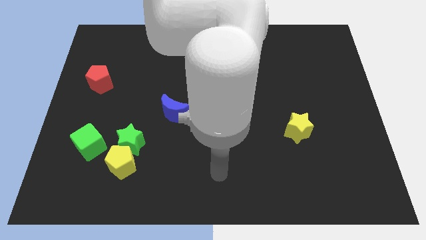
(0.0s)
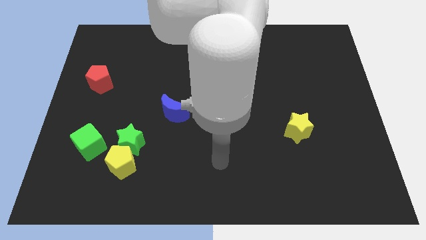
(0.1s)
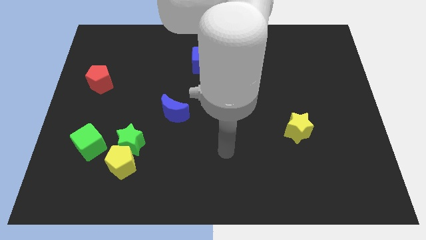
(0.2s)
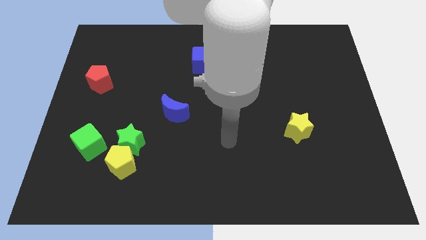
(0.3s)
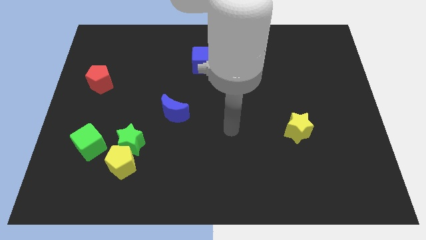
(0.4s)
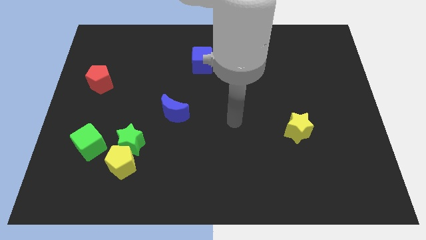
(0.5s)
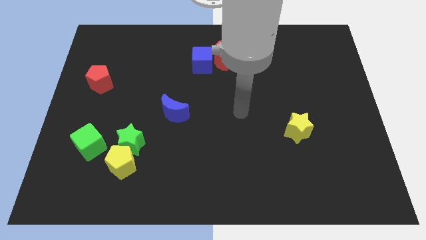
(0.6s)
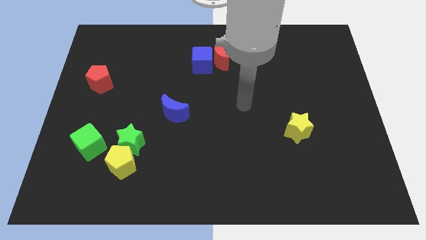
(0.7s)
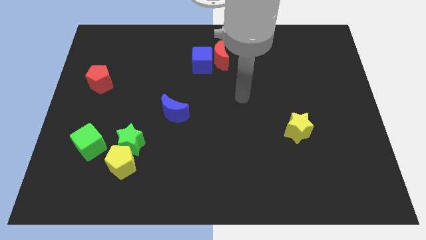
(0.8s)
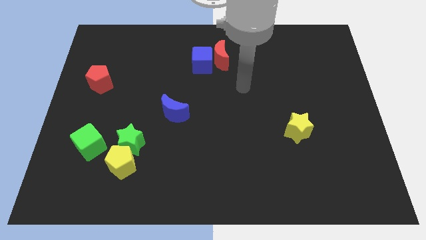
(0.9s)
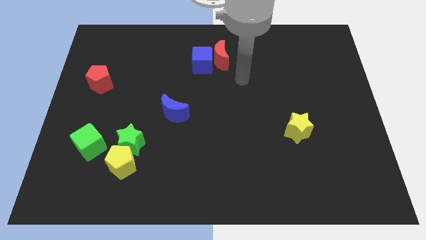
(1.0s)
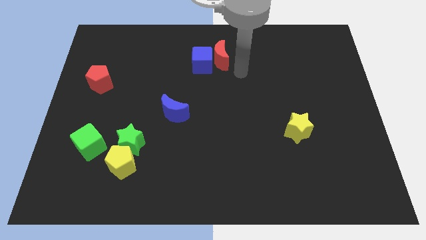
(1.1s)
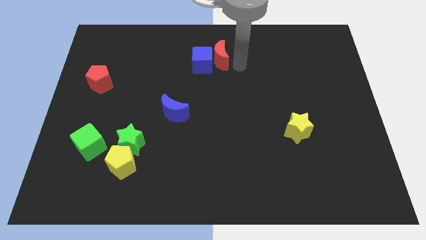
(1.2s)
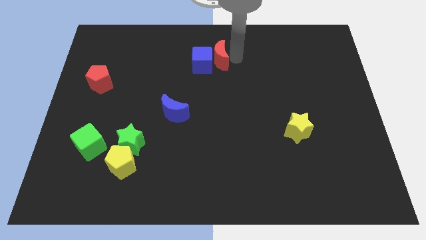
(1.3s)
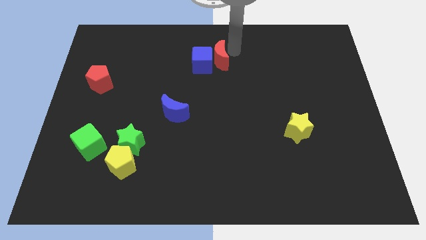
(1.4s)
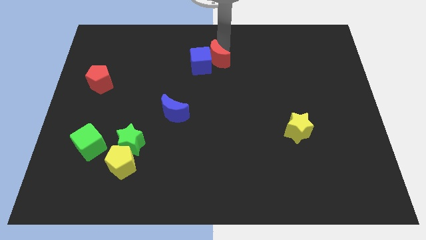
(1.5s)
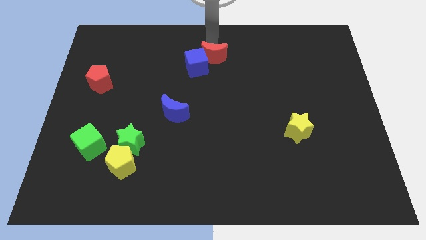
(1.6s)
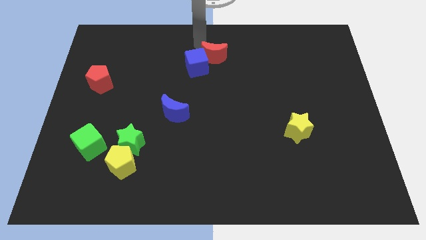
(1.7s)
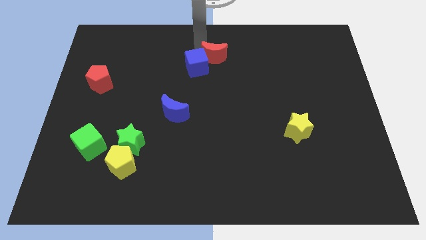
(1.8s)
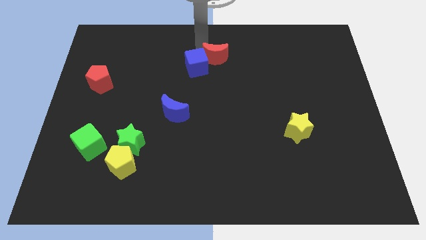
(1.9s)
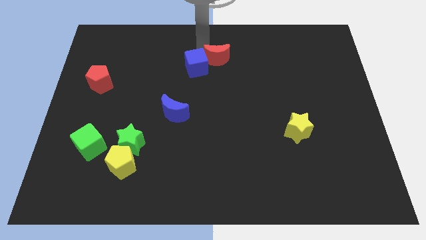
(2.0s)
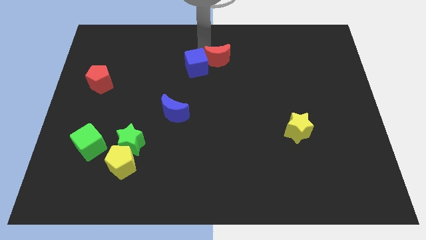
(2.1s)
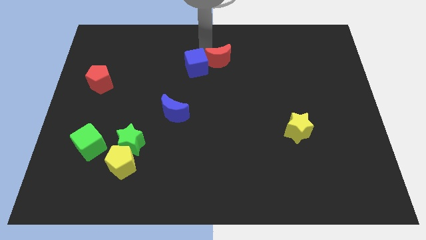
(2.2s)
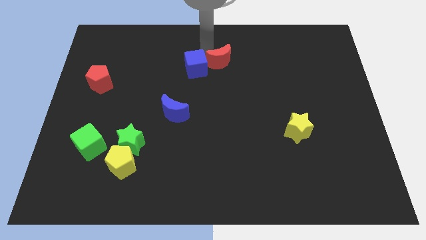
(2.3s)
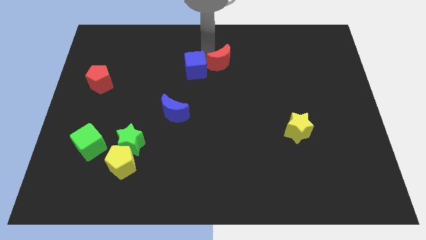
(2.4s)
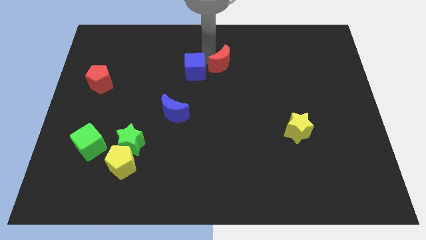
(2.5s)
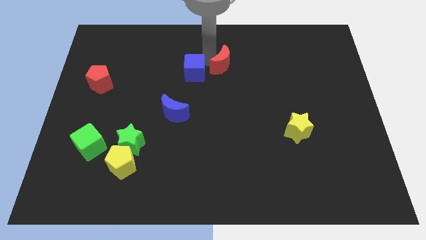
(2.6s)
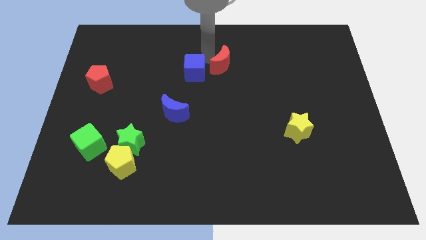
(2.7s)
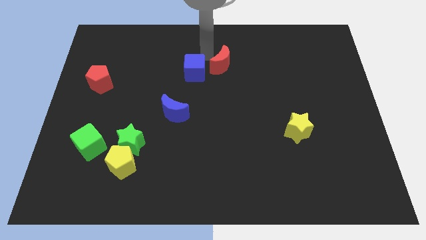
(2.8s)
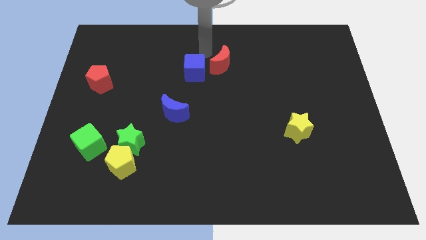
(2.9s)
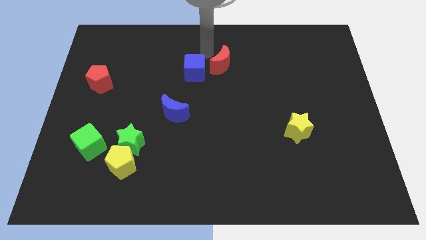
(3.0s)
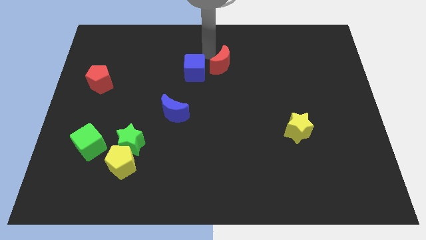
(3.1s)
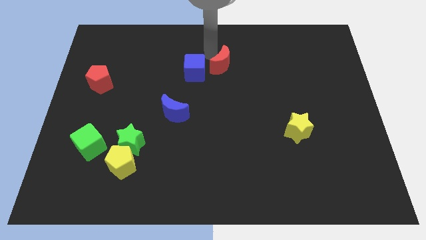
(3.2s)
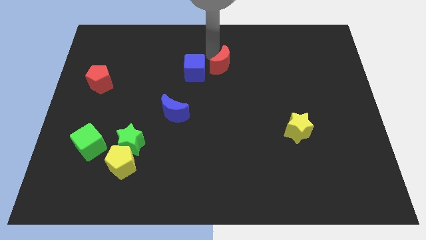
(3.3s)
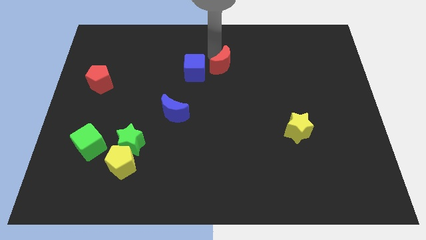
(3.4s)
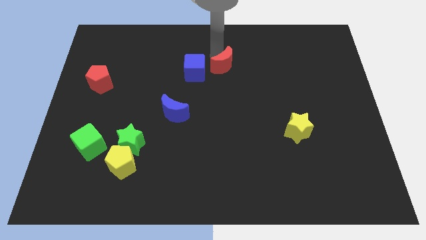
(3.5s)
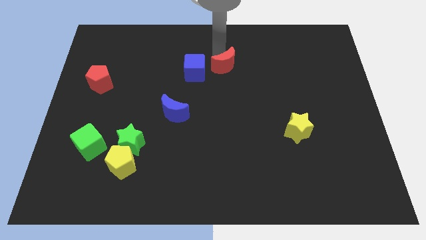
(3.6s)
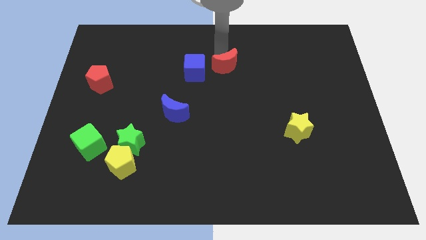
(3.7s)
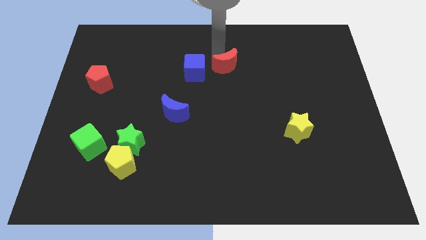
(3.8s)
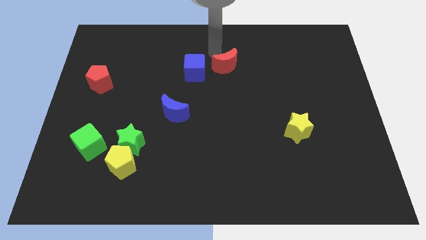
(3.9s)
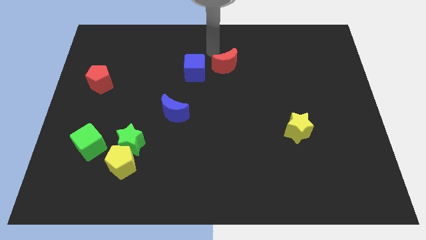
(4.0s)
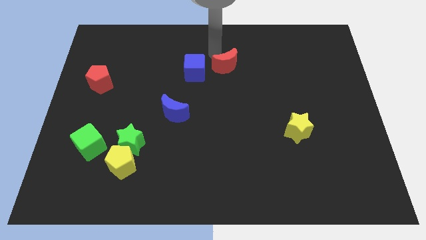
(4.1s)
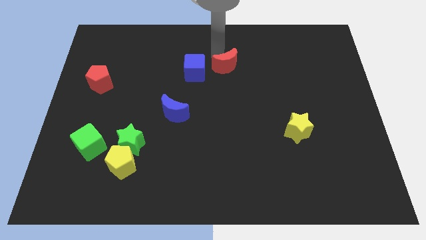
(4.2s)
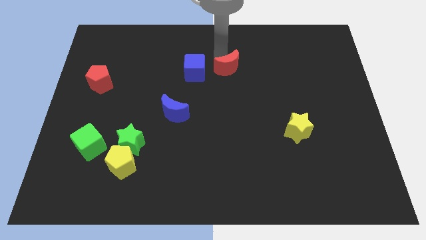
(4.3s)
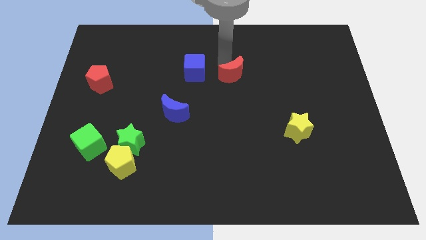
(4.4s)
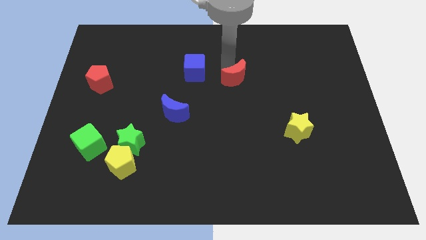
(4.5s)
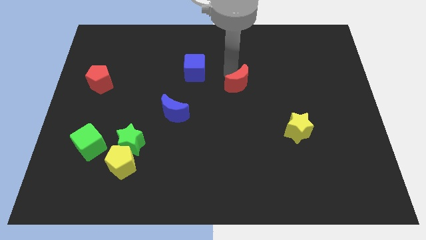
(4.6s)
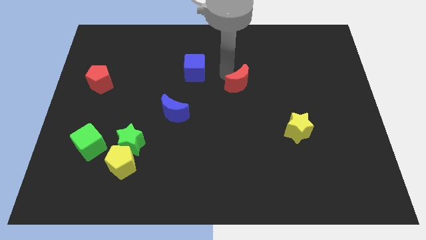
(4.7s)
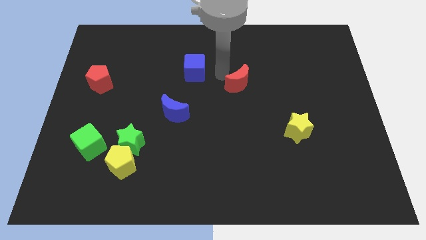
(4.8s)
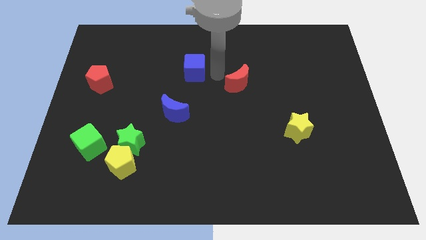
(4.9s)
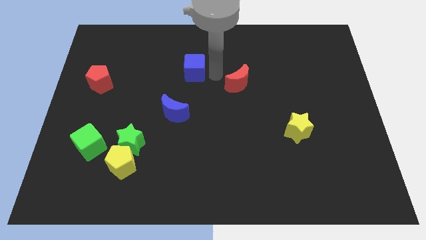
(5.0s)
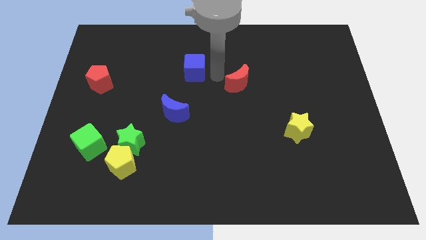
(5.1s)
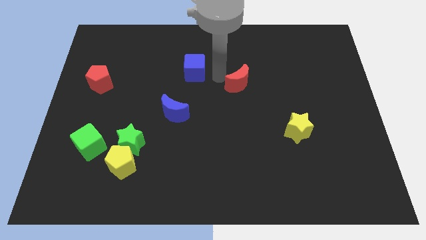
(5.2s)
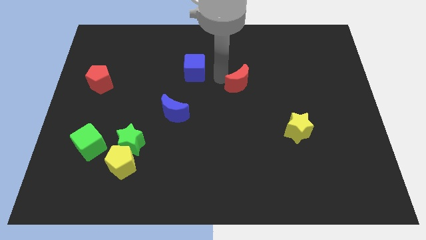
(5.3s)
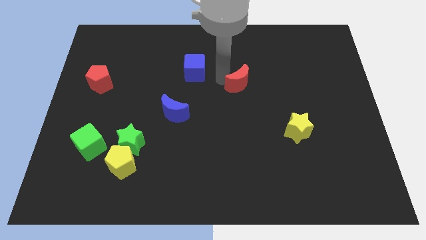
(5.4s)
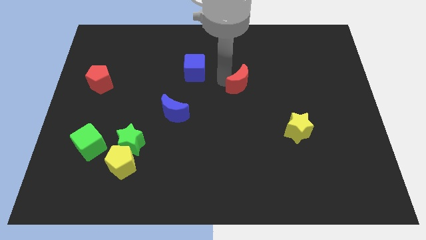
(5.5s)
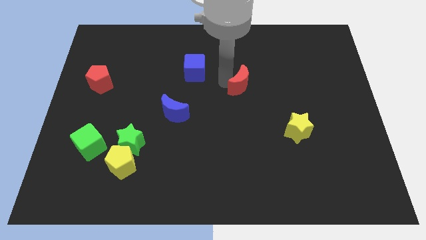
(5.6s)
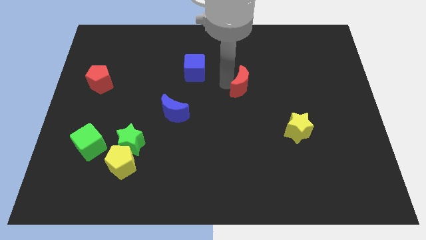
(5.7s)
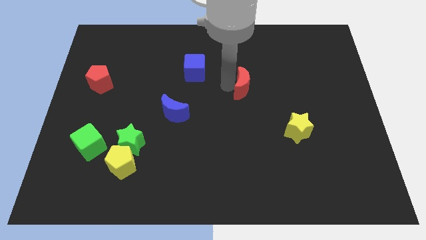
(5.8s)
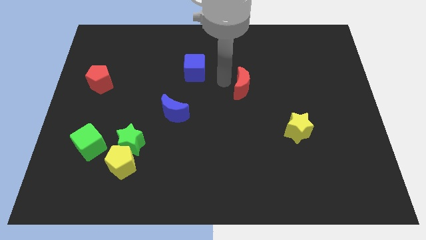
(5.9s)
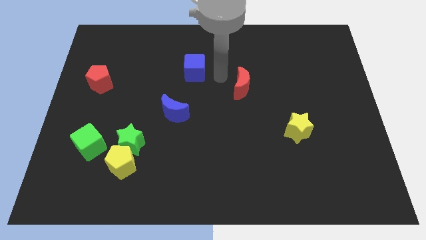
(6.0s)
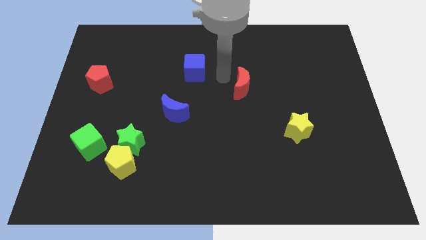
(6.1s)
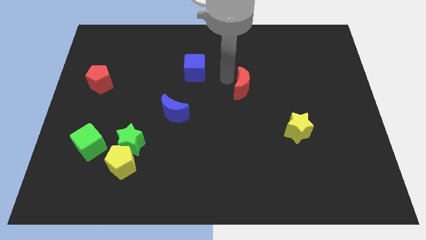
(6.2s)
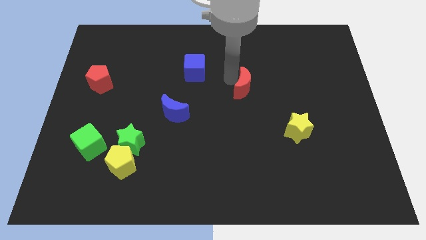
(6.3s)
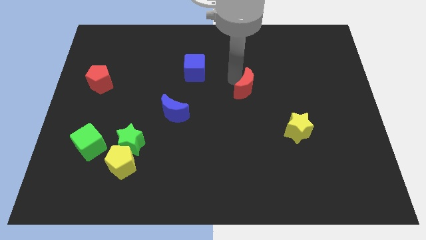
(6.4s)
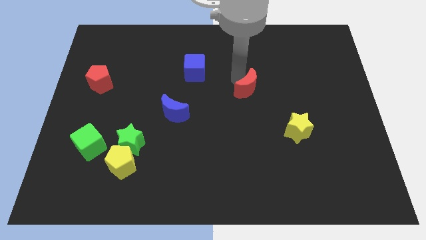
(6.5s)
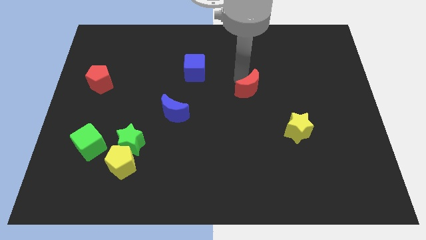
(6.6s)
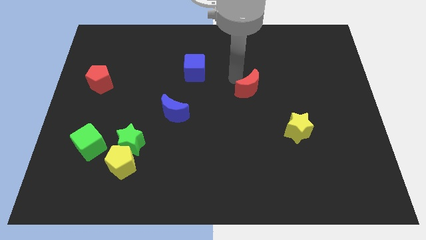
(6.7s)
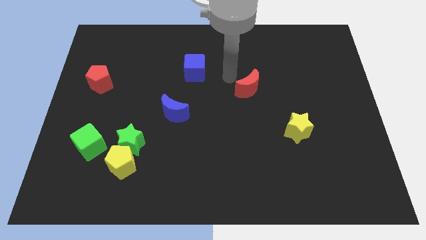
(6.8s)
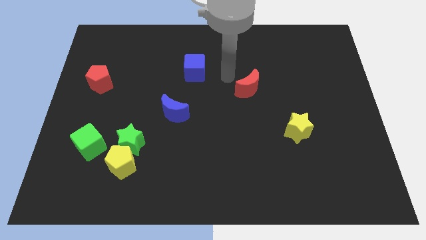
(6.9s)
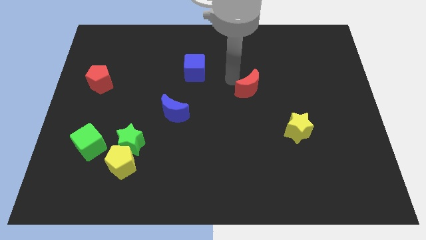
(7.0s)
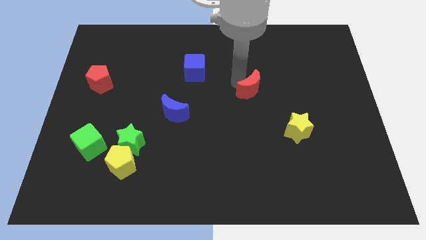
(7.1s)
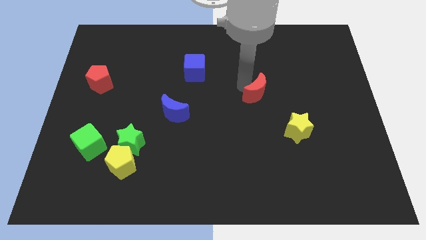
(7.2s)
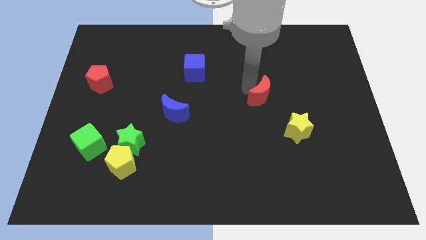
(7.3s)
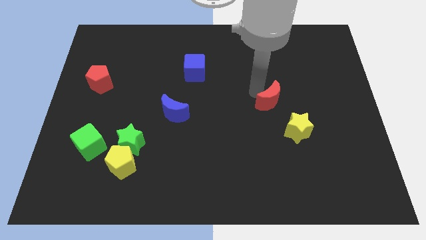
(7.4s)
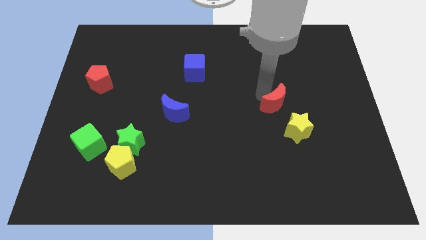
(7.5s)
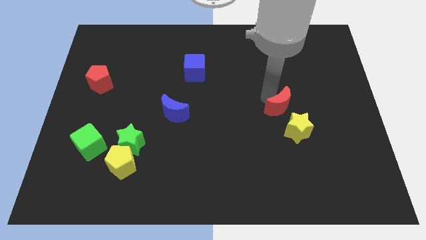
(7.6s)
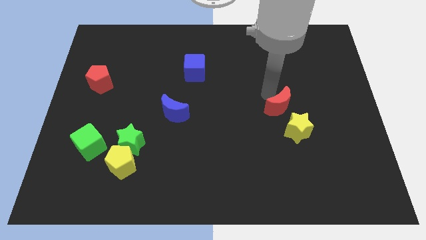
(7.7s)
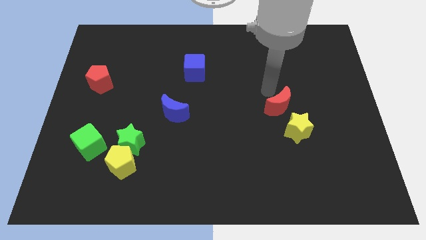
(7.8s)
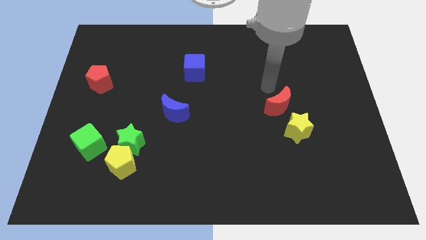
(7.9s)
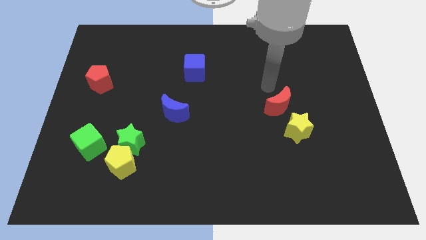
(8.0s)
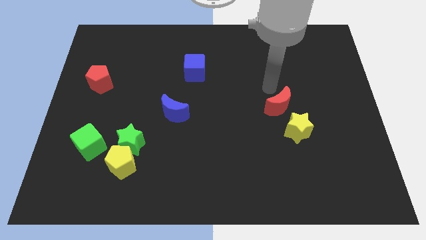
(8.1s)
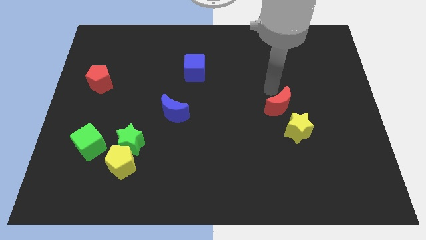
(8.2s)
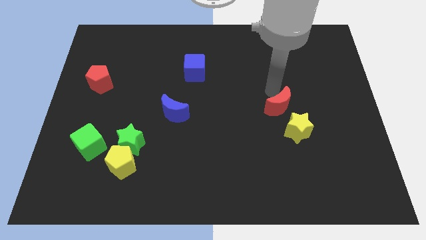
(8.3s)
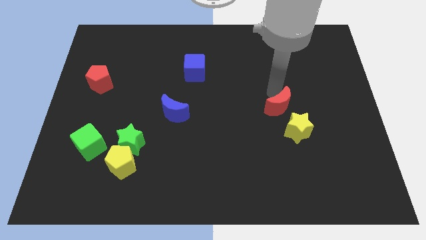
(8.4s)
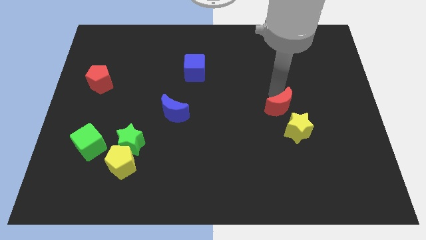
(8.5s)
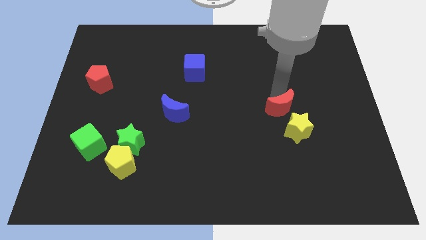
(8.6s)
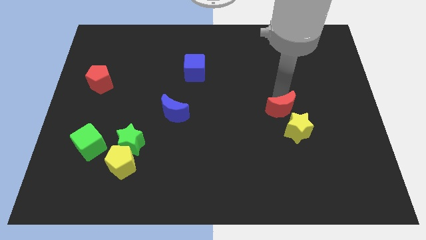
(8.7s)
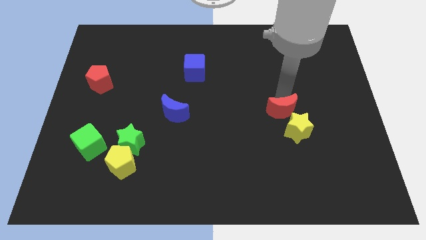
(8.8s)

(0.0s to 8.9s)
put the red moon close to the yellow star
